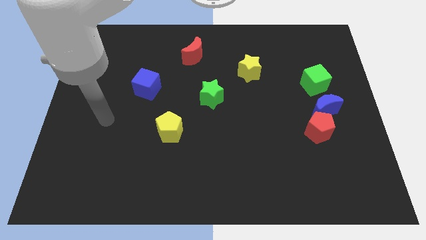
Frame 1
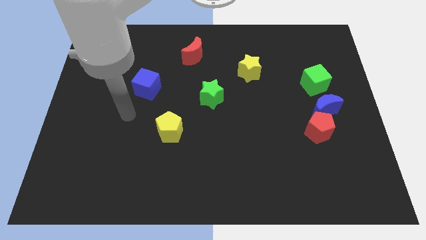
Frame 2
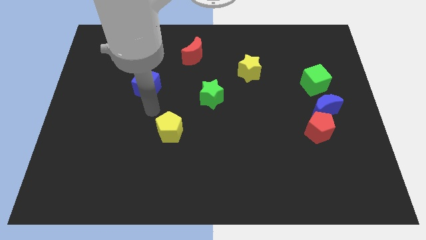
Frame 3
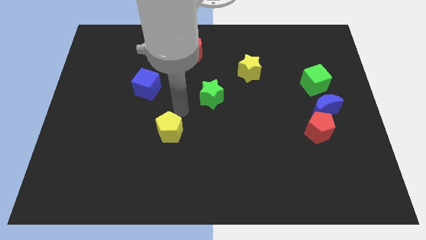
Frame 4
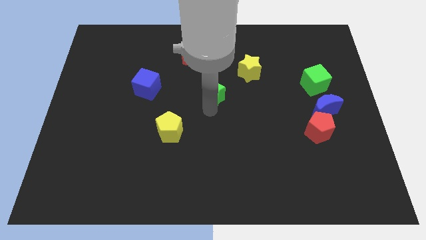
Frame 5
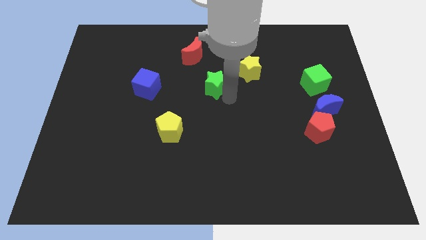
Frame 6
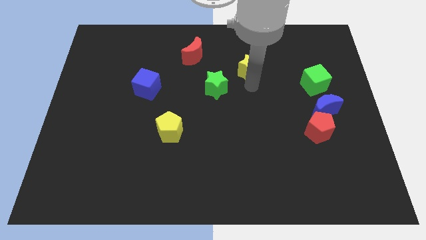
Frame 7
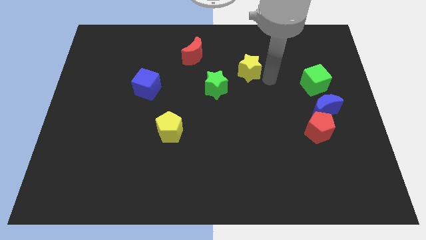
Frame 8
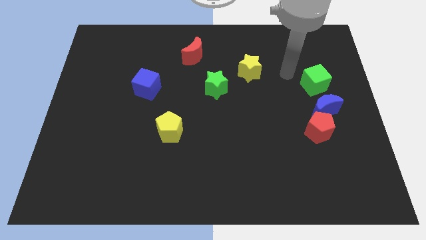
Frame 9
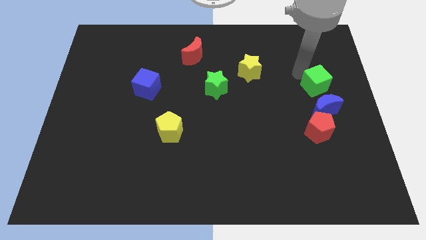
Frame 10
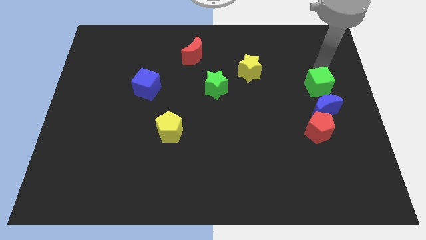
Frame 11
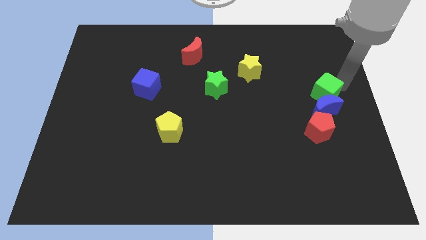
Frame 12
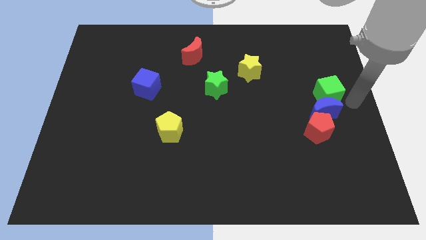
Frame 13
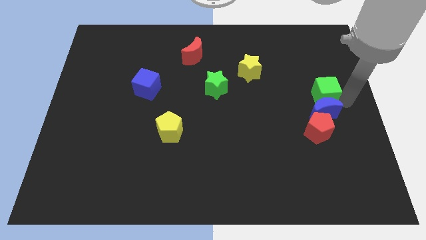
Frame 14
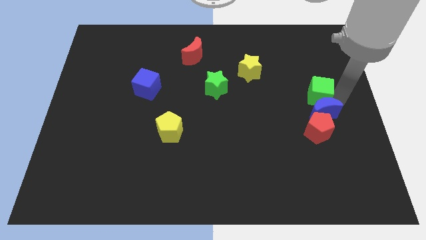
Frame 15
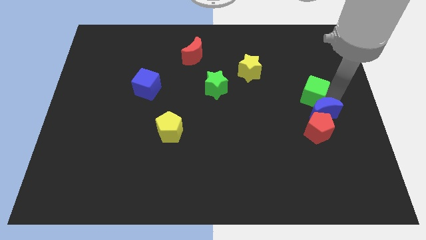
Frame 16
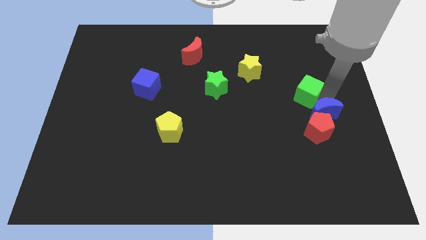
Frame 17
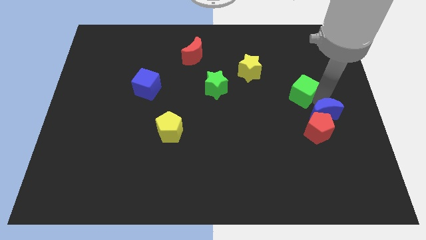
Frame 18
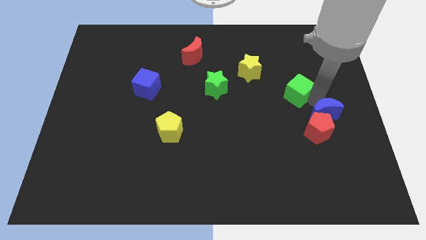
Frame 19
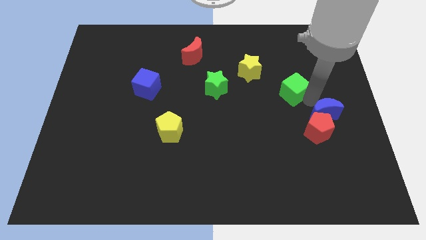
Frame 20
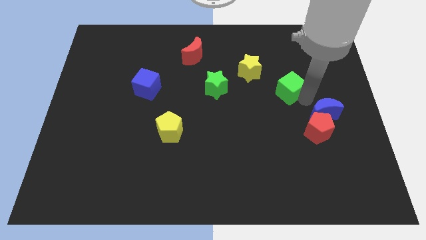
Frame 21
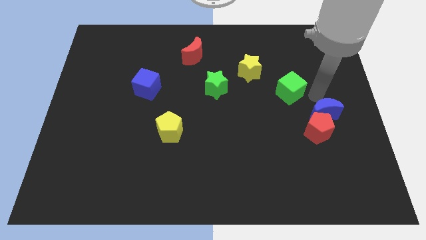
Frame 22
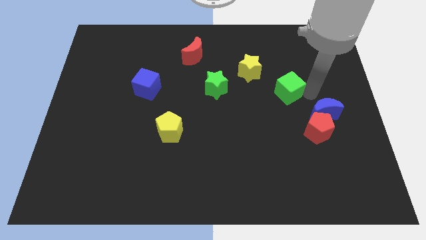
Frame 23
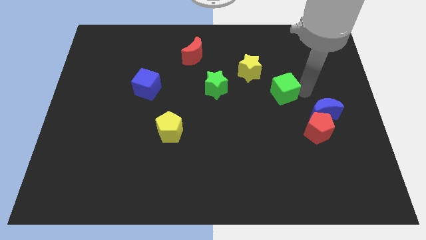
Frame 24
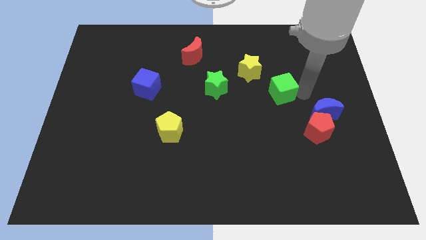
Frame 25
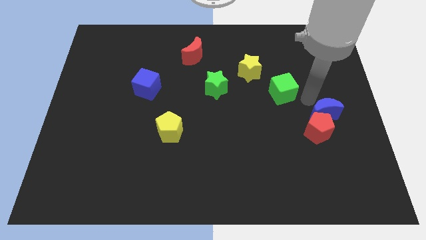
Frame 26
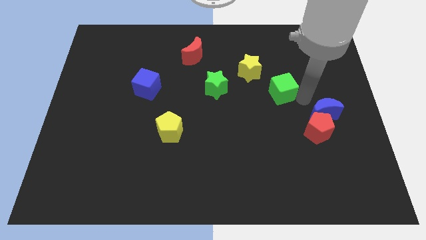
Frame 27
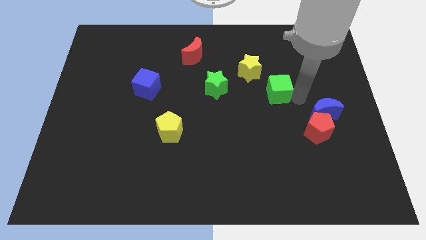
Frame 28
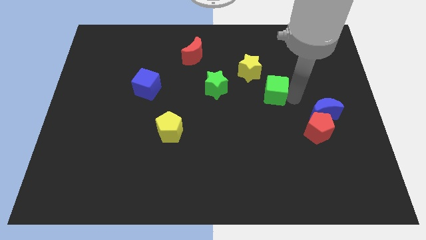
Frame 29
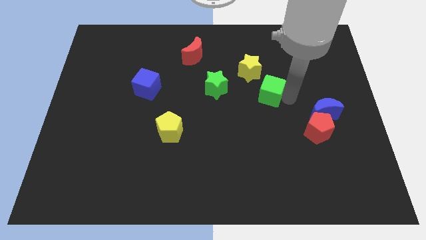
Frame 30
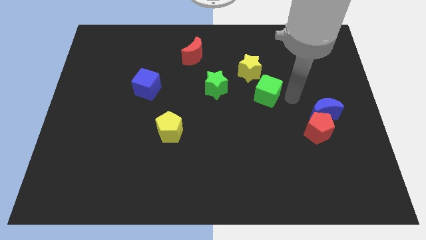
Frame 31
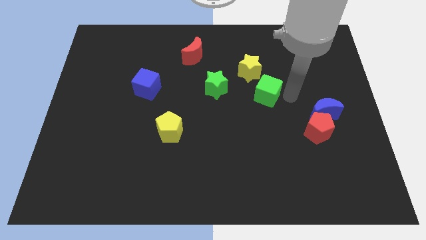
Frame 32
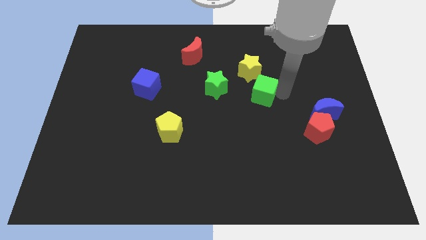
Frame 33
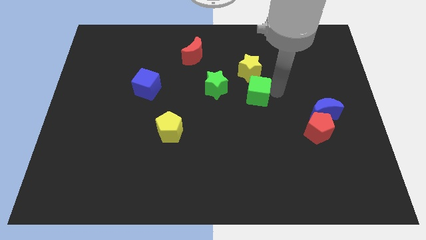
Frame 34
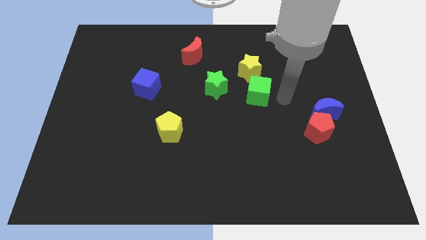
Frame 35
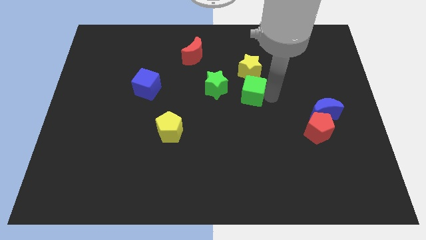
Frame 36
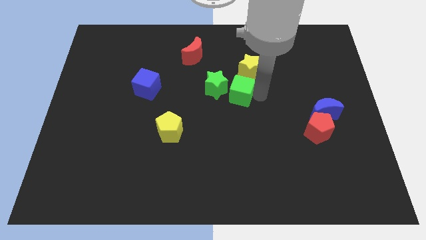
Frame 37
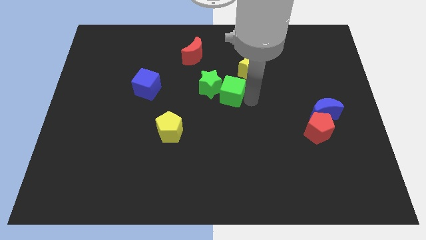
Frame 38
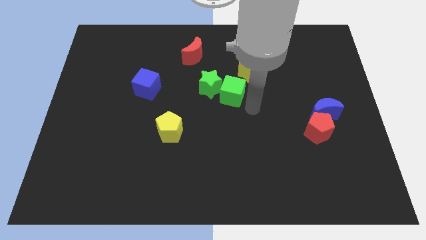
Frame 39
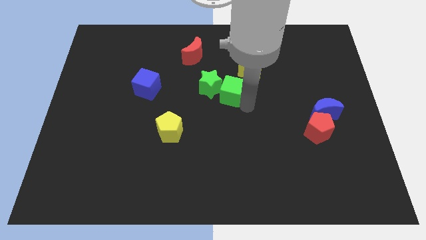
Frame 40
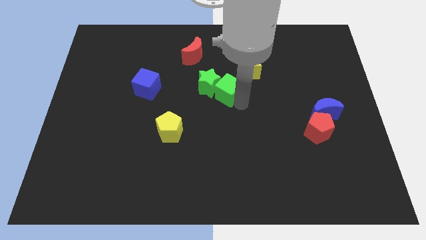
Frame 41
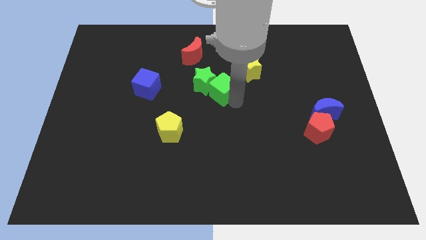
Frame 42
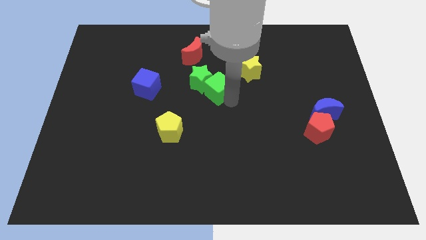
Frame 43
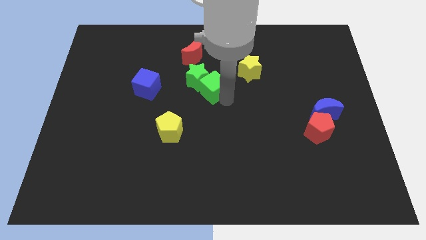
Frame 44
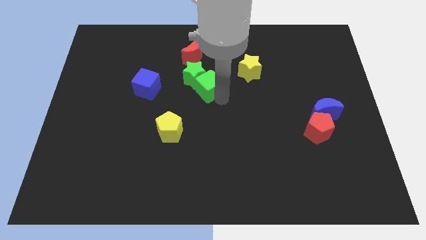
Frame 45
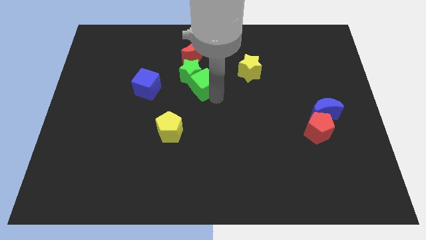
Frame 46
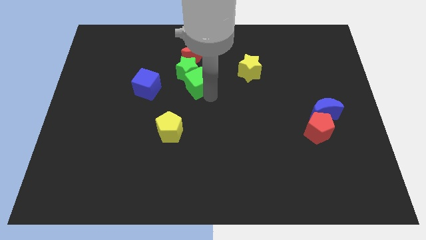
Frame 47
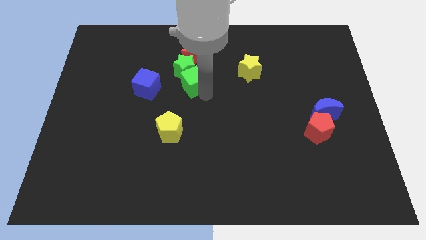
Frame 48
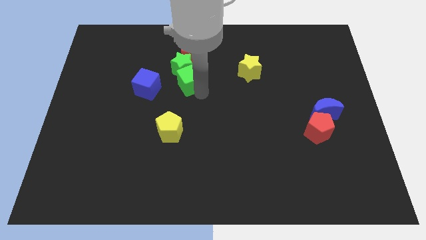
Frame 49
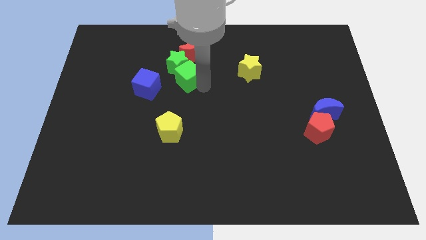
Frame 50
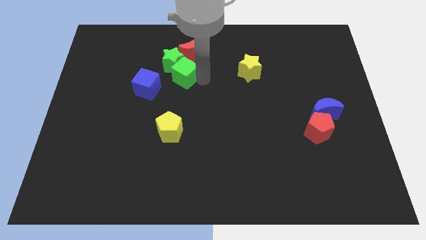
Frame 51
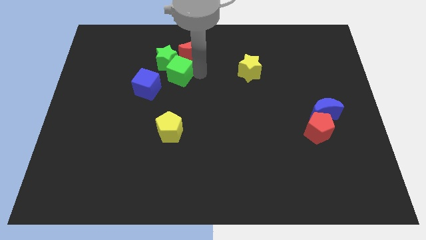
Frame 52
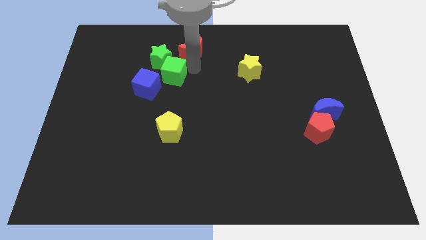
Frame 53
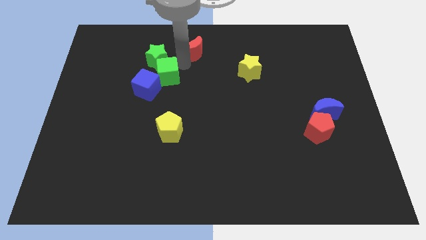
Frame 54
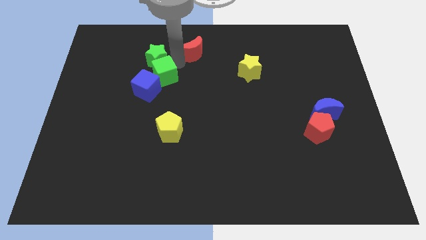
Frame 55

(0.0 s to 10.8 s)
move the green cube close to the blue cube
